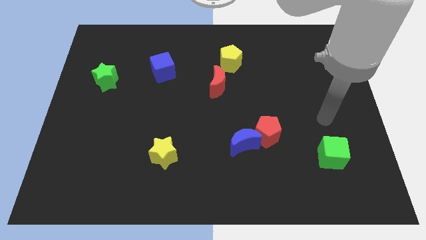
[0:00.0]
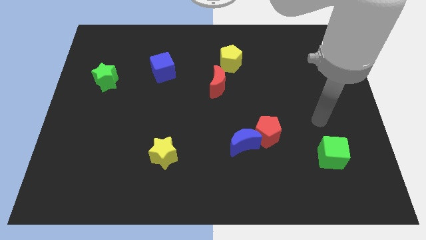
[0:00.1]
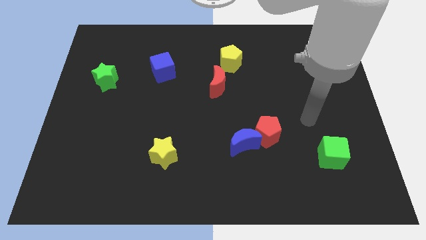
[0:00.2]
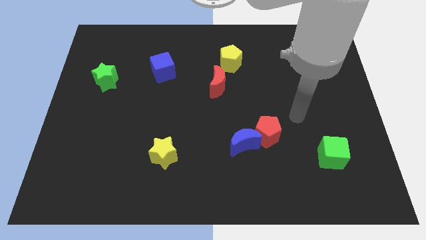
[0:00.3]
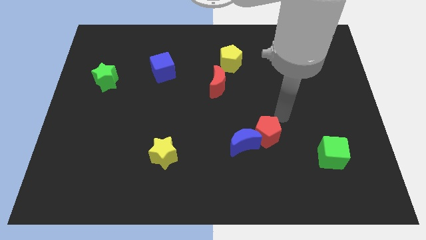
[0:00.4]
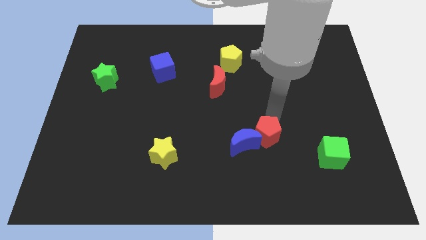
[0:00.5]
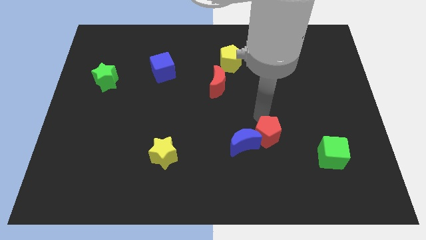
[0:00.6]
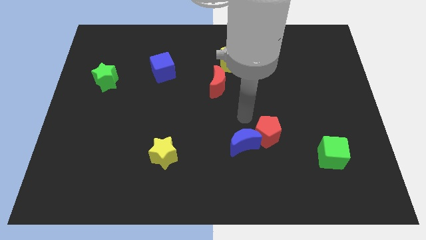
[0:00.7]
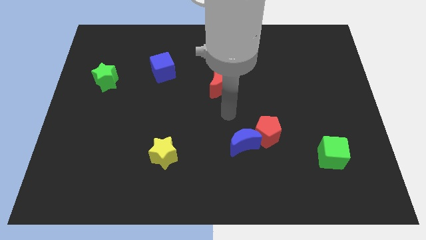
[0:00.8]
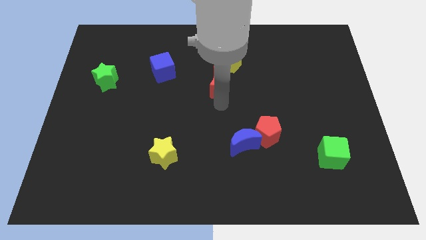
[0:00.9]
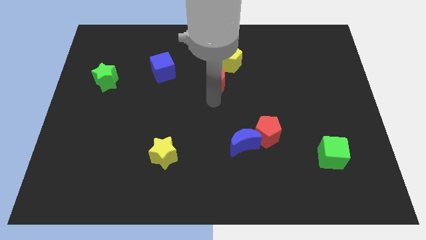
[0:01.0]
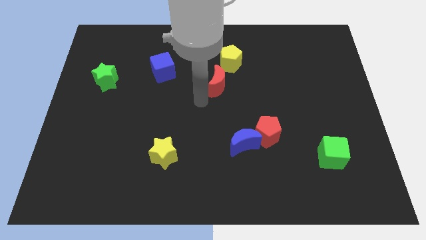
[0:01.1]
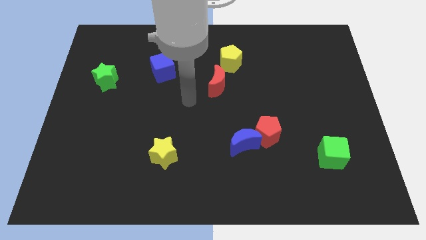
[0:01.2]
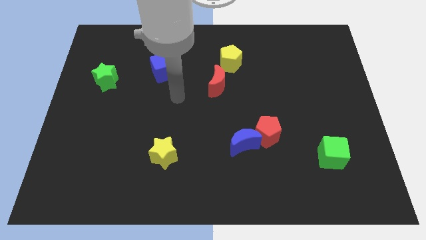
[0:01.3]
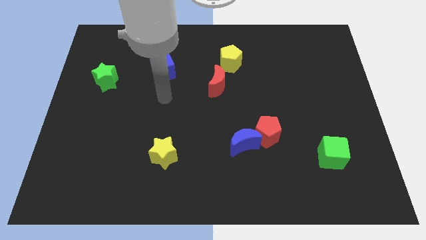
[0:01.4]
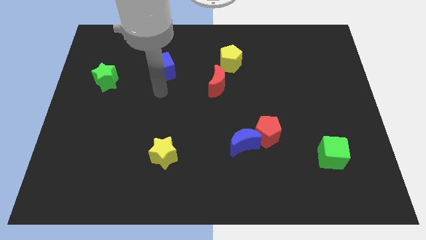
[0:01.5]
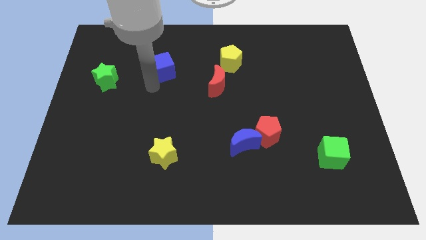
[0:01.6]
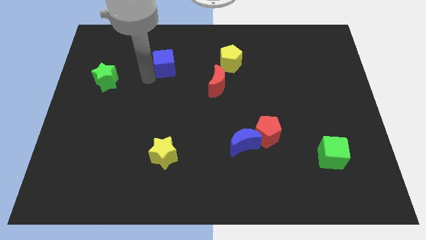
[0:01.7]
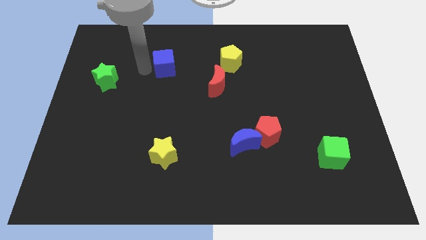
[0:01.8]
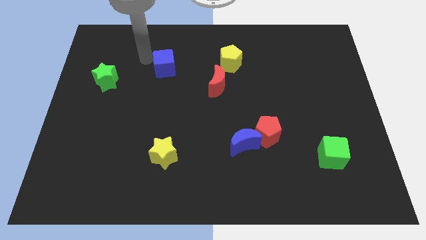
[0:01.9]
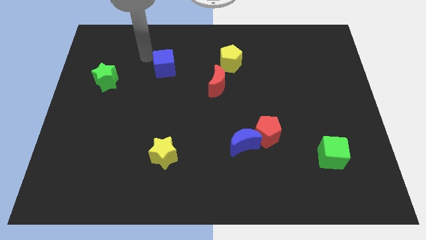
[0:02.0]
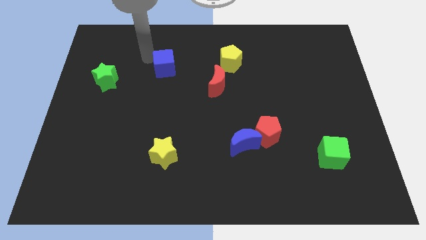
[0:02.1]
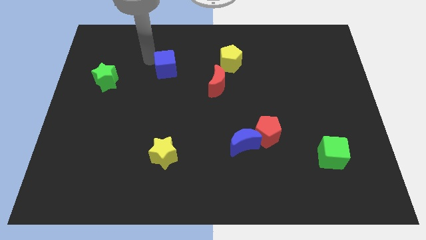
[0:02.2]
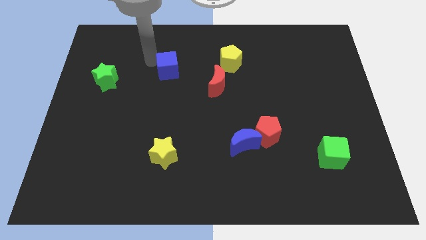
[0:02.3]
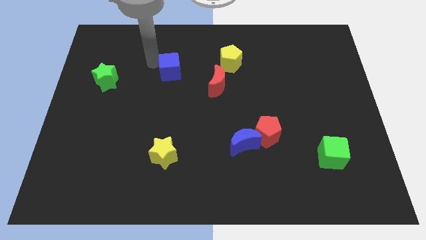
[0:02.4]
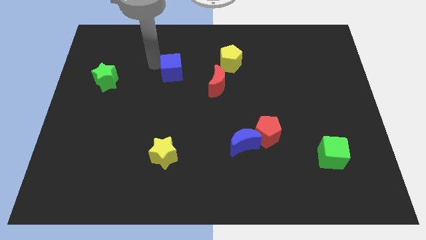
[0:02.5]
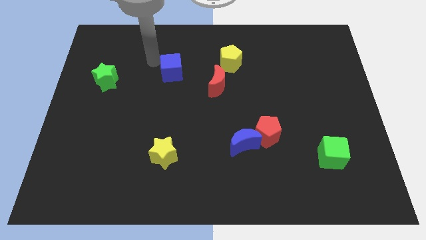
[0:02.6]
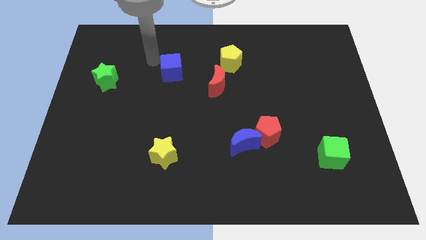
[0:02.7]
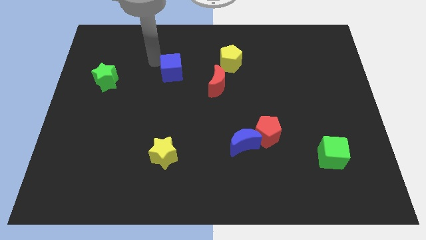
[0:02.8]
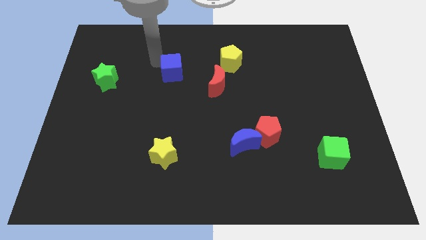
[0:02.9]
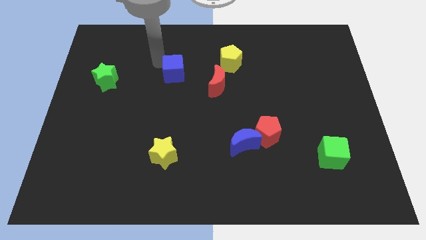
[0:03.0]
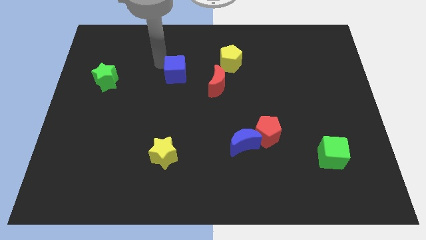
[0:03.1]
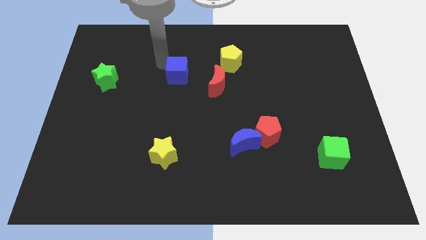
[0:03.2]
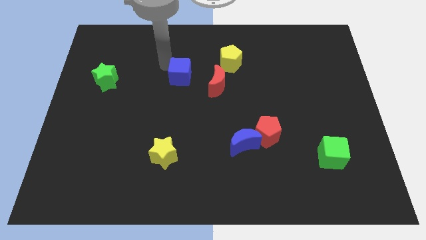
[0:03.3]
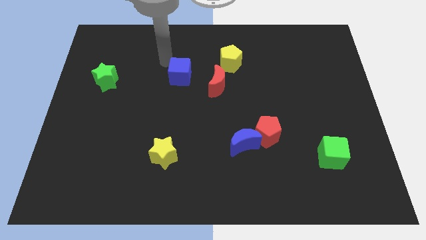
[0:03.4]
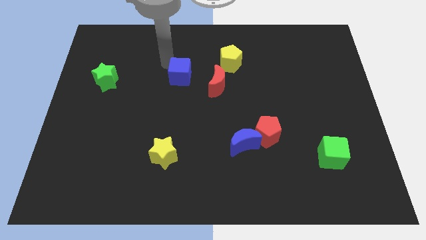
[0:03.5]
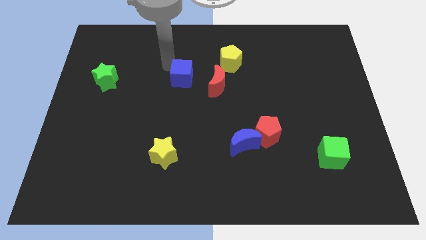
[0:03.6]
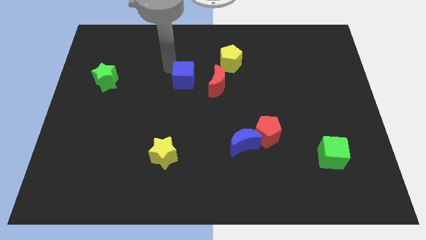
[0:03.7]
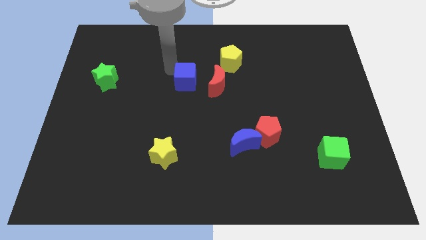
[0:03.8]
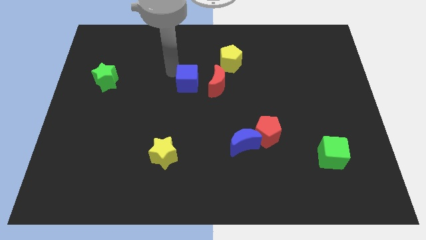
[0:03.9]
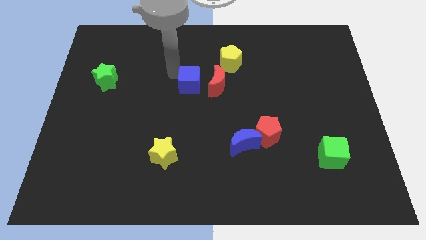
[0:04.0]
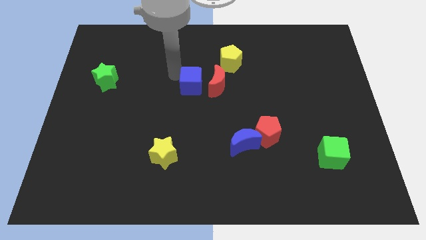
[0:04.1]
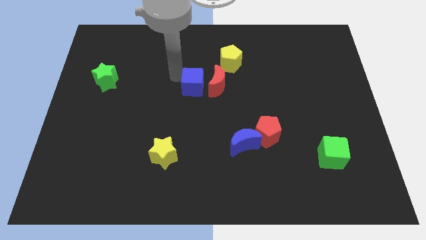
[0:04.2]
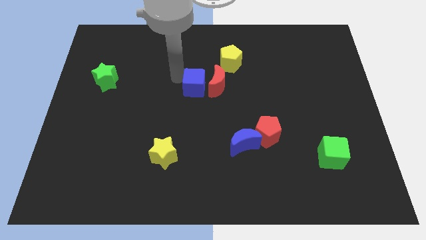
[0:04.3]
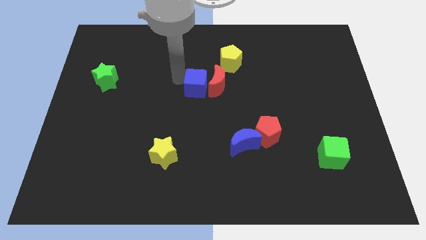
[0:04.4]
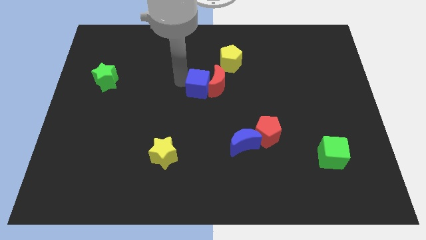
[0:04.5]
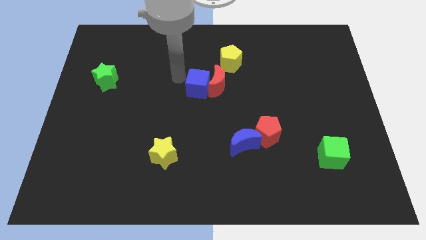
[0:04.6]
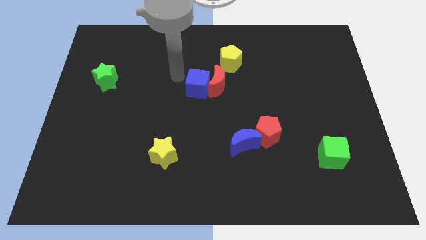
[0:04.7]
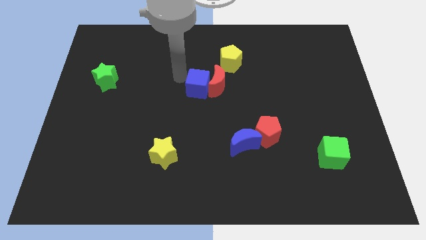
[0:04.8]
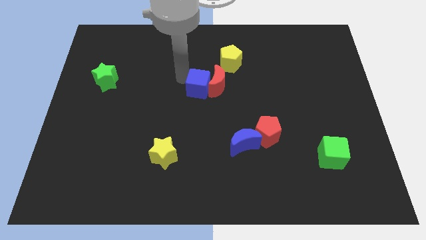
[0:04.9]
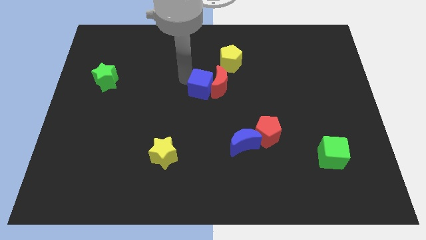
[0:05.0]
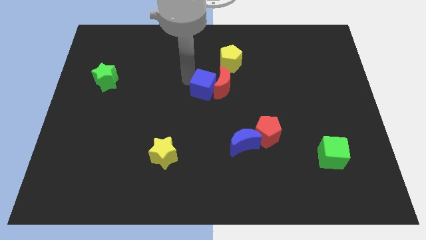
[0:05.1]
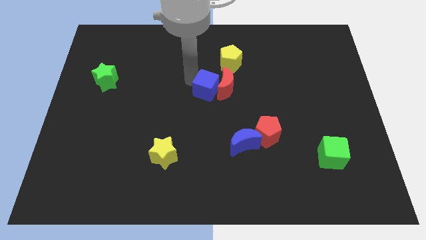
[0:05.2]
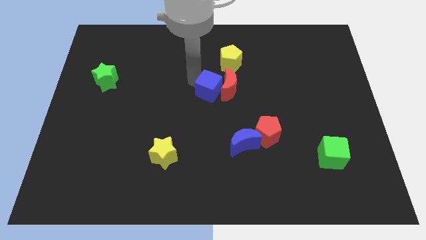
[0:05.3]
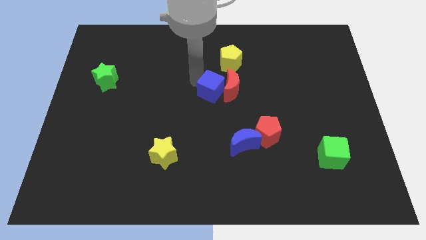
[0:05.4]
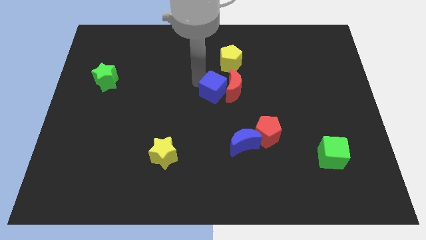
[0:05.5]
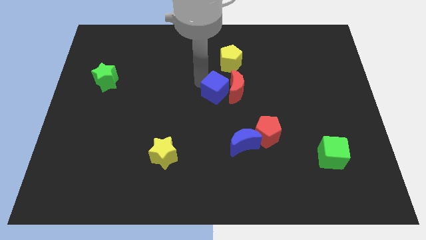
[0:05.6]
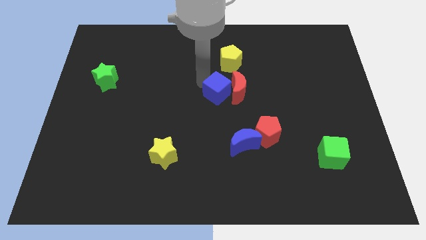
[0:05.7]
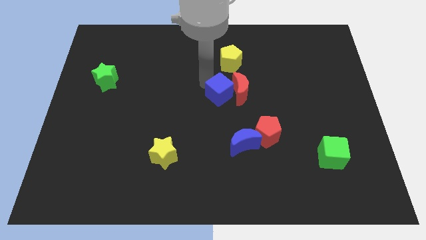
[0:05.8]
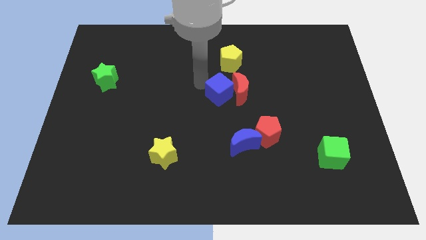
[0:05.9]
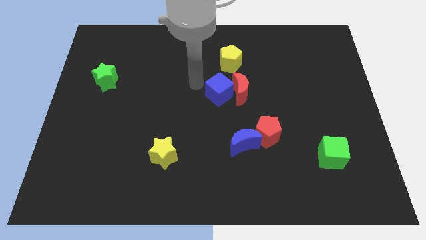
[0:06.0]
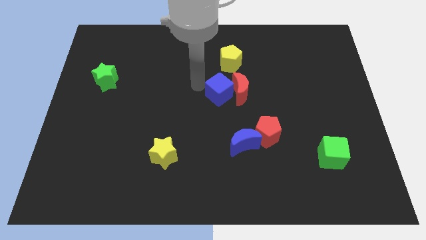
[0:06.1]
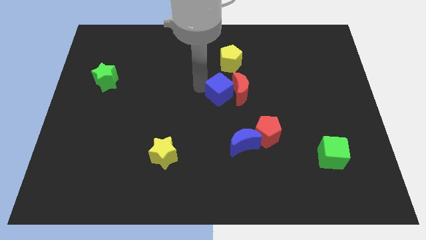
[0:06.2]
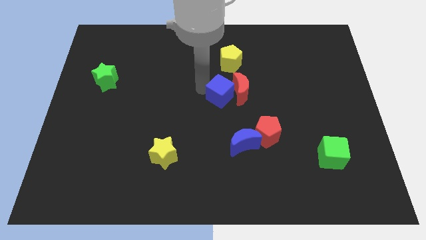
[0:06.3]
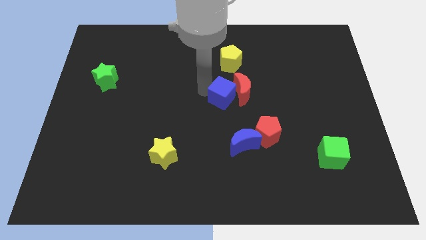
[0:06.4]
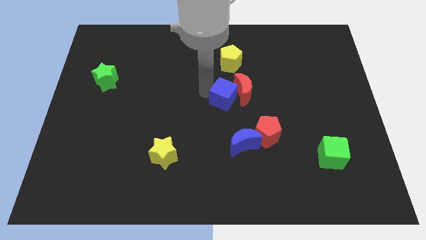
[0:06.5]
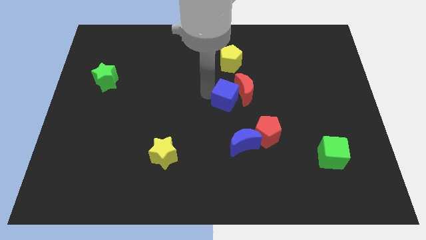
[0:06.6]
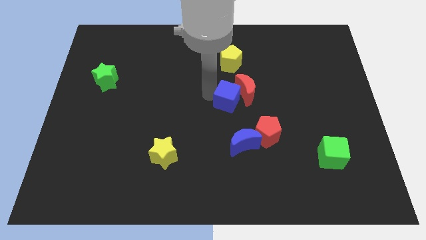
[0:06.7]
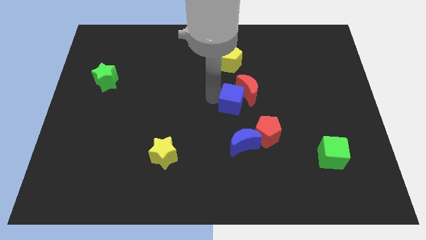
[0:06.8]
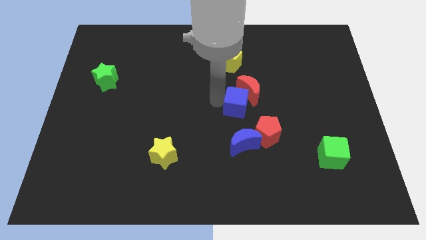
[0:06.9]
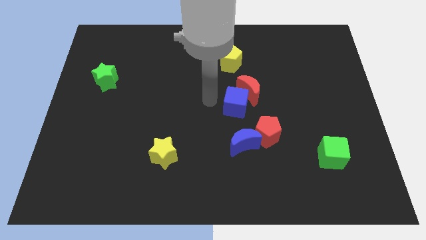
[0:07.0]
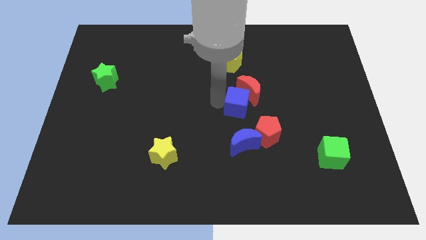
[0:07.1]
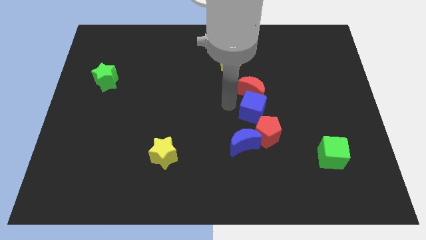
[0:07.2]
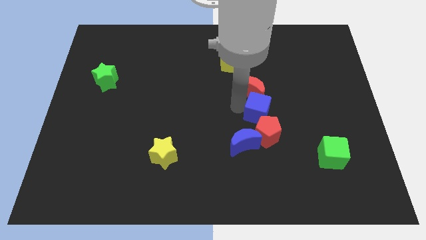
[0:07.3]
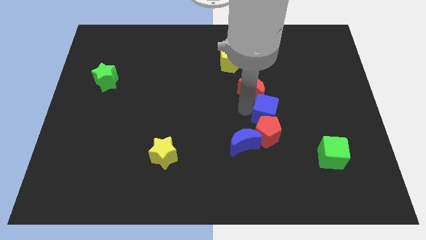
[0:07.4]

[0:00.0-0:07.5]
move the blue cube to the top right of the red pentagon
